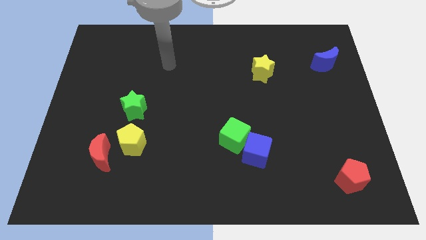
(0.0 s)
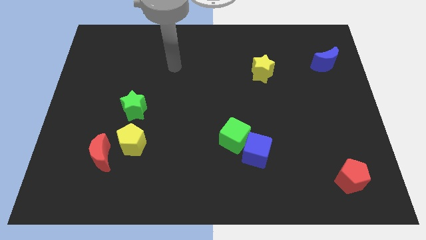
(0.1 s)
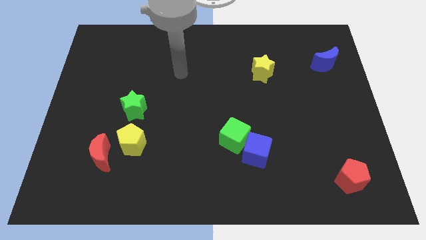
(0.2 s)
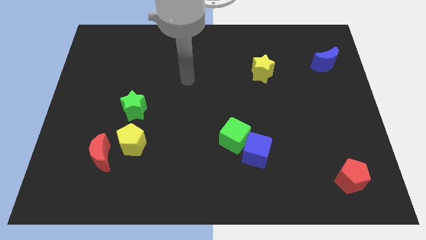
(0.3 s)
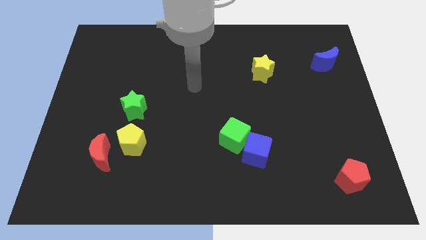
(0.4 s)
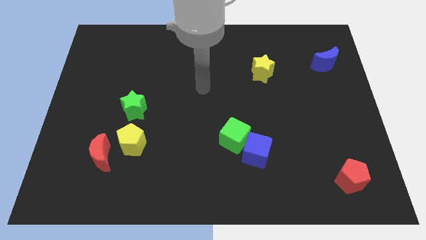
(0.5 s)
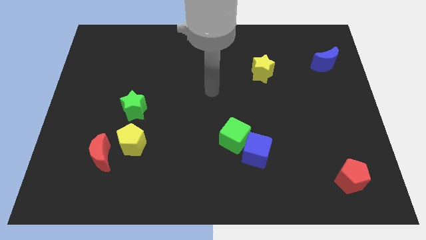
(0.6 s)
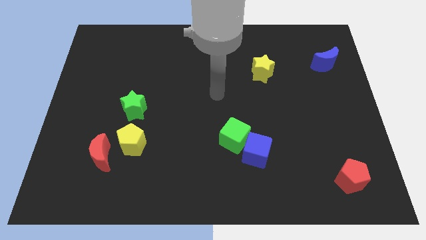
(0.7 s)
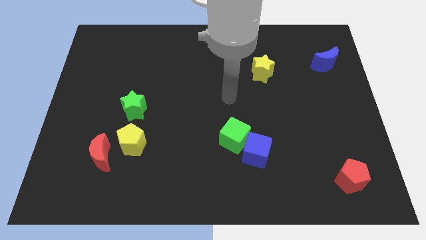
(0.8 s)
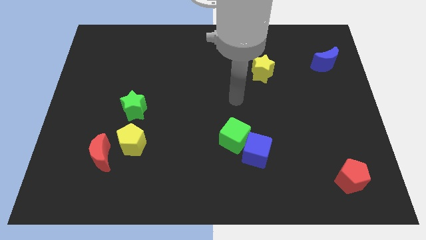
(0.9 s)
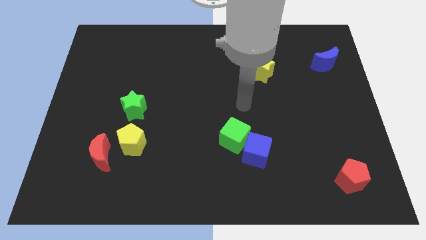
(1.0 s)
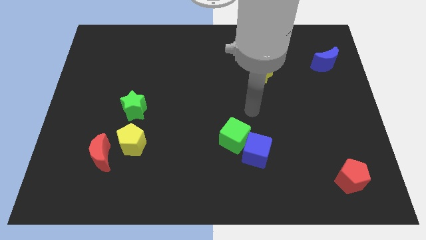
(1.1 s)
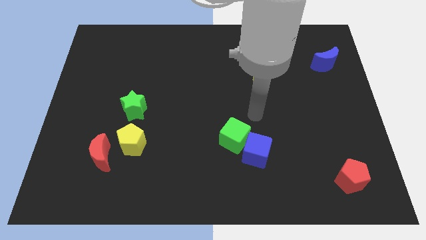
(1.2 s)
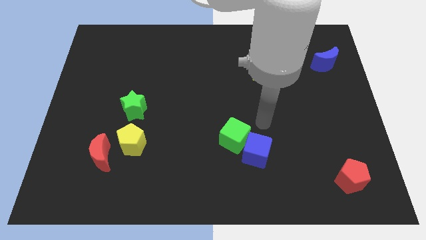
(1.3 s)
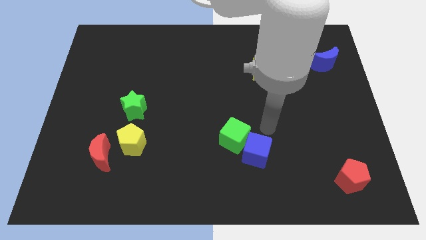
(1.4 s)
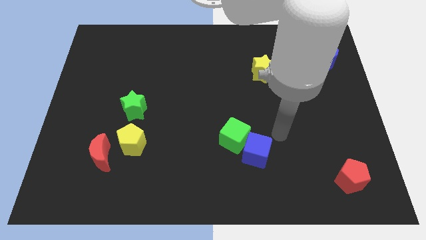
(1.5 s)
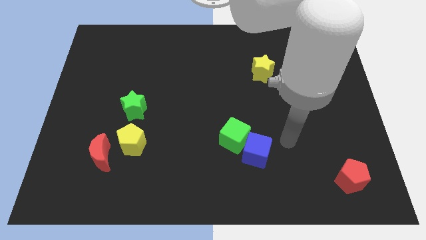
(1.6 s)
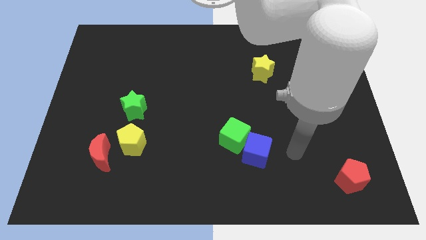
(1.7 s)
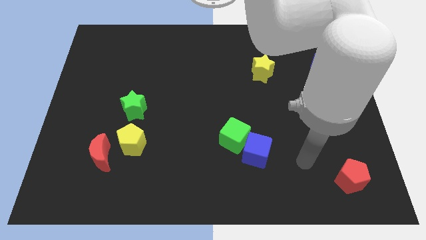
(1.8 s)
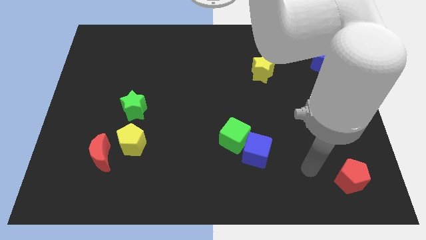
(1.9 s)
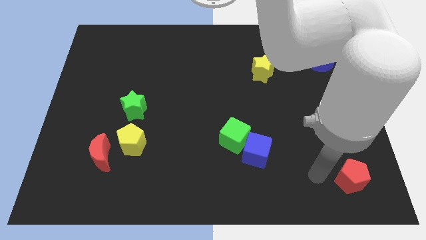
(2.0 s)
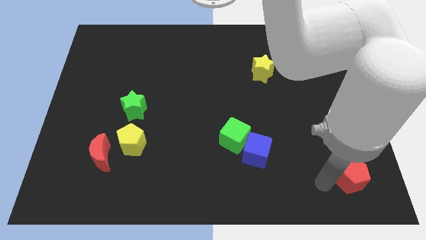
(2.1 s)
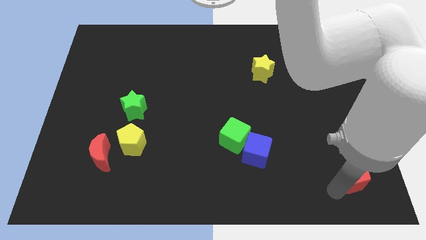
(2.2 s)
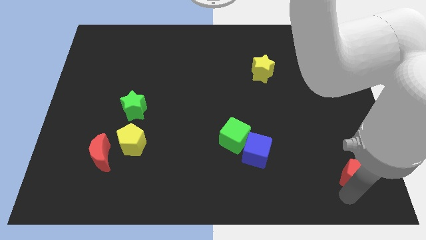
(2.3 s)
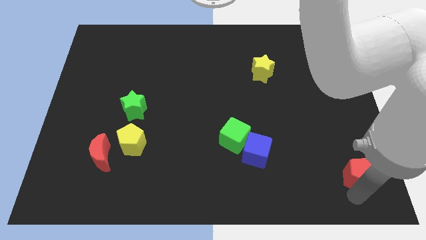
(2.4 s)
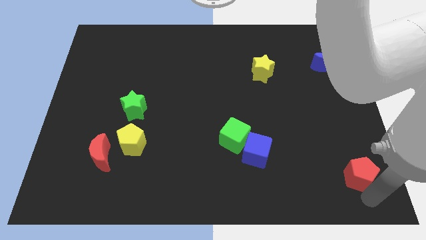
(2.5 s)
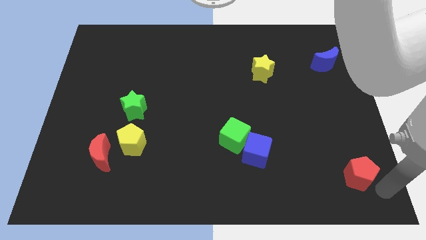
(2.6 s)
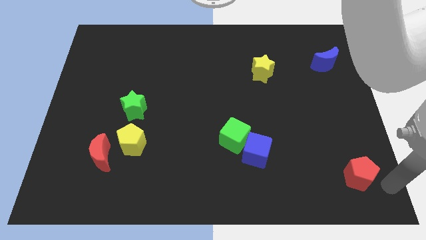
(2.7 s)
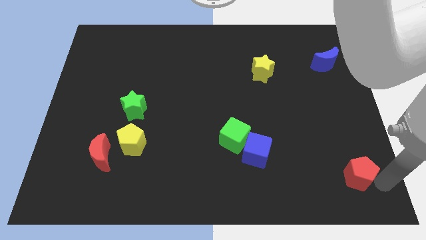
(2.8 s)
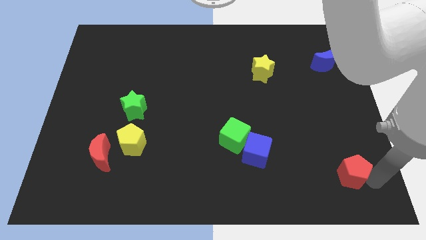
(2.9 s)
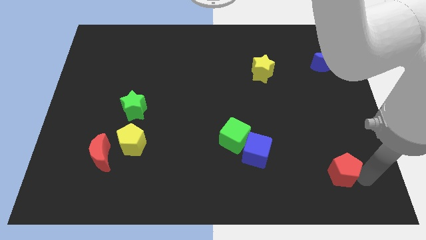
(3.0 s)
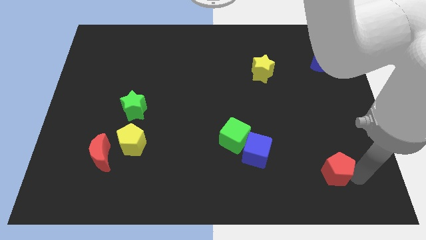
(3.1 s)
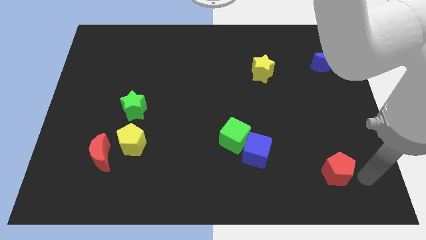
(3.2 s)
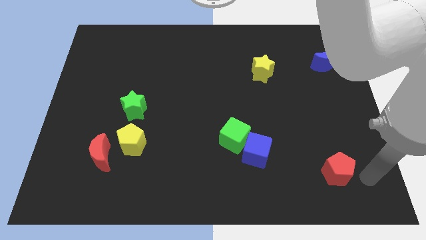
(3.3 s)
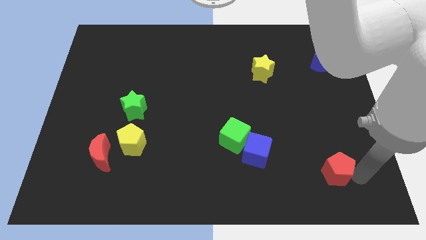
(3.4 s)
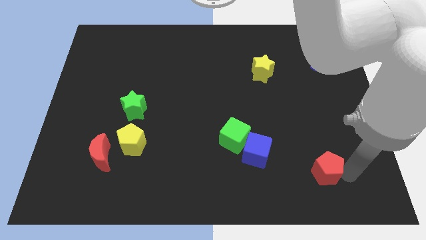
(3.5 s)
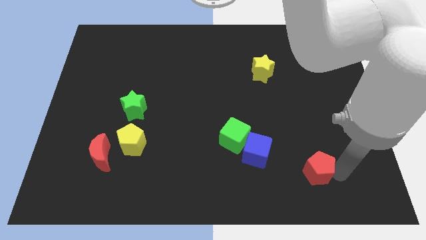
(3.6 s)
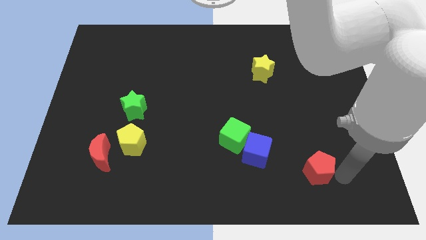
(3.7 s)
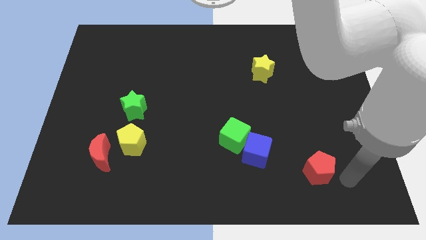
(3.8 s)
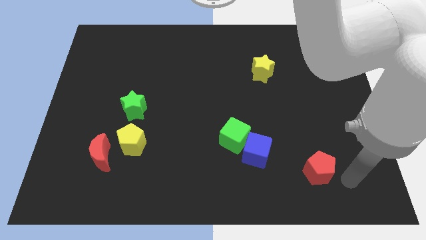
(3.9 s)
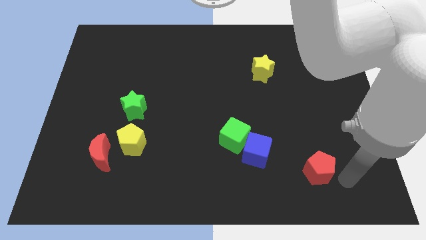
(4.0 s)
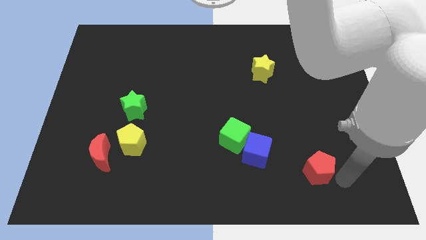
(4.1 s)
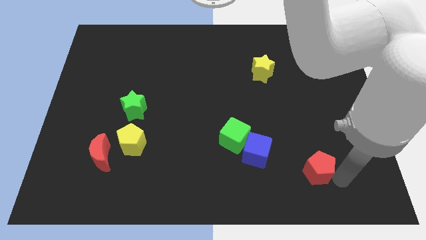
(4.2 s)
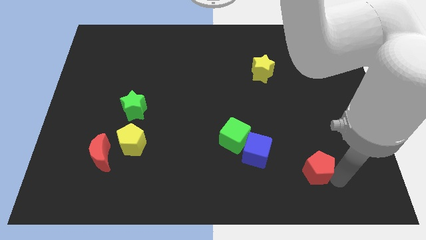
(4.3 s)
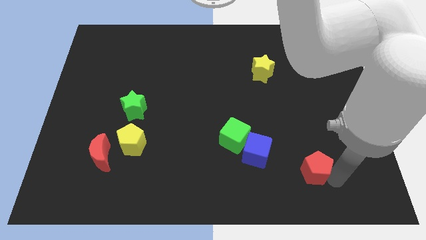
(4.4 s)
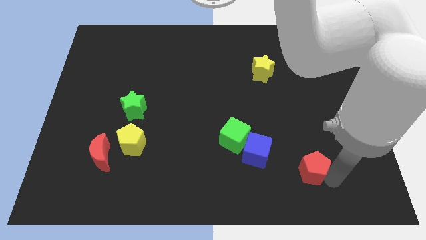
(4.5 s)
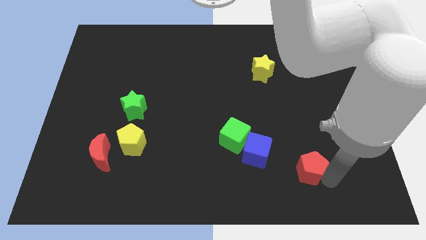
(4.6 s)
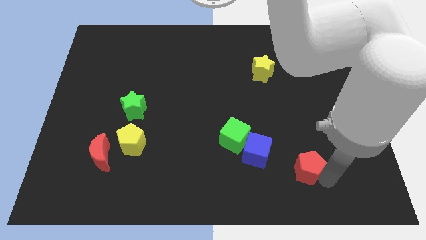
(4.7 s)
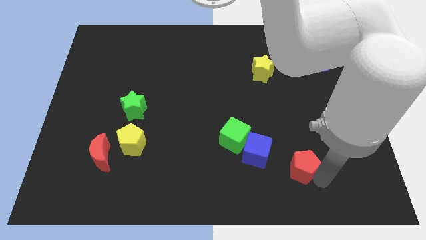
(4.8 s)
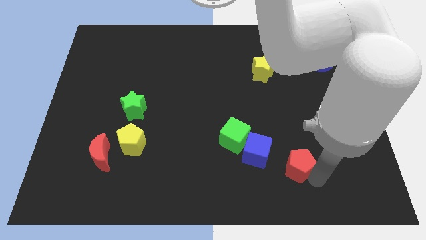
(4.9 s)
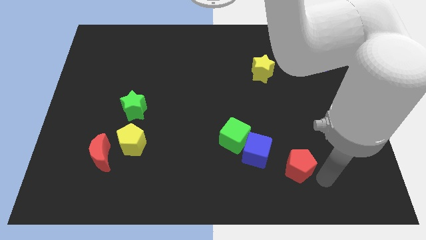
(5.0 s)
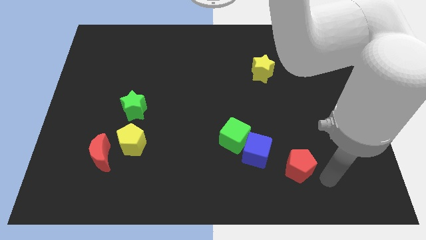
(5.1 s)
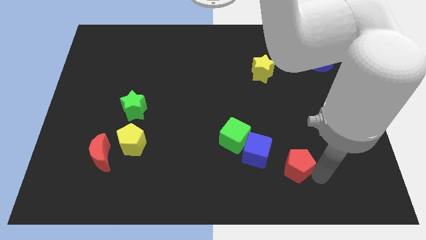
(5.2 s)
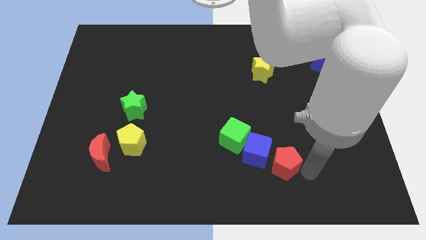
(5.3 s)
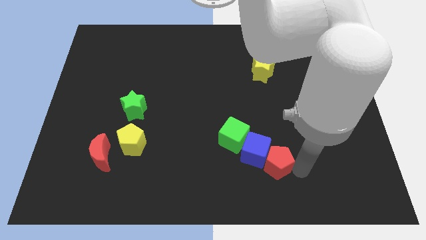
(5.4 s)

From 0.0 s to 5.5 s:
move the red pentagon towards the blue cube

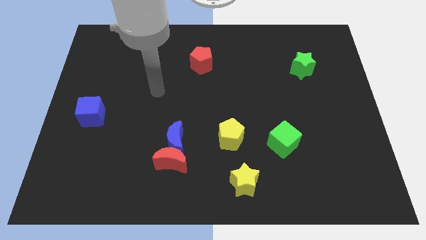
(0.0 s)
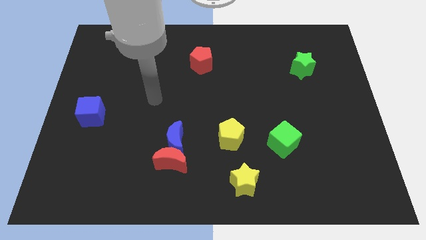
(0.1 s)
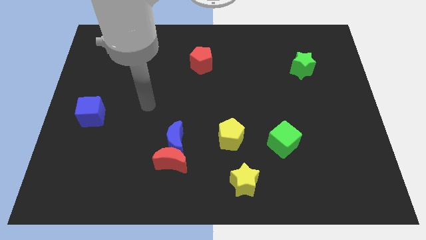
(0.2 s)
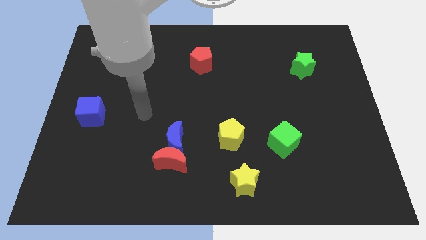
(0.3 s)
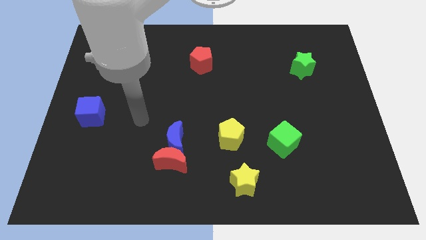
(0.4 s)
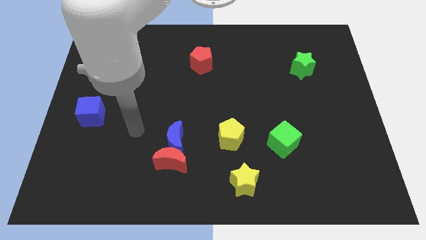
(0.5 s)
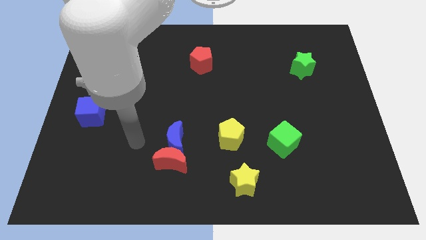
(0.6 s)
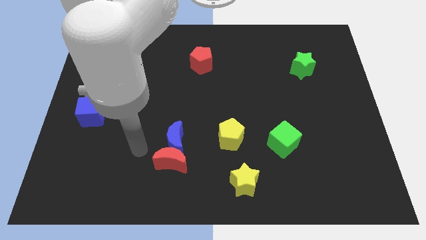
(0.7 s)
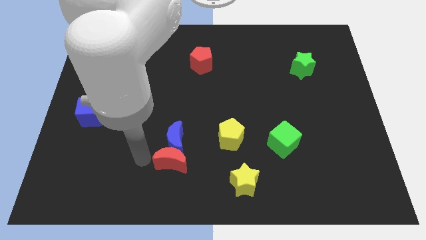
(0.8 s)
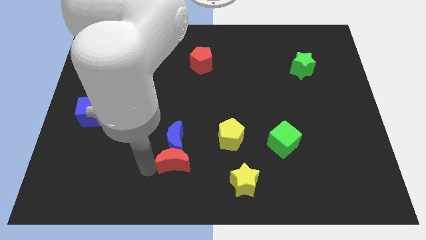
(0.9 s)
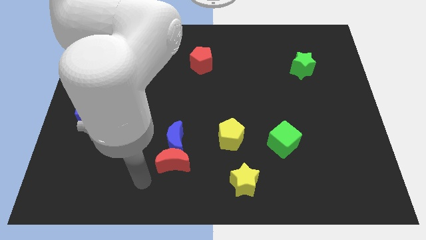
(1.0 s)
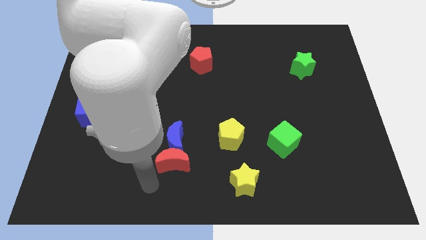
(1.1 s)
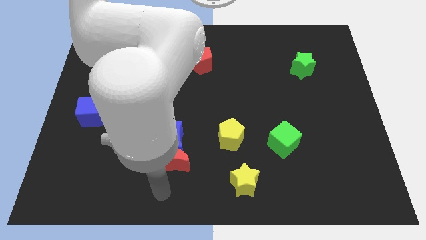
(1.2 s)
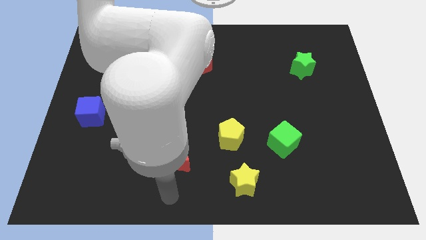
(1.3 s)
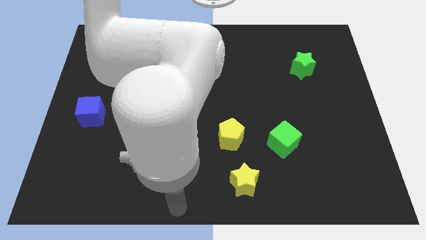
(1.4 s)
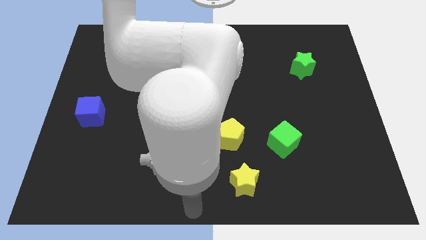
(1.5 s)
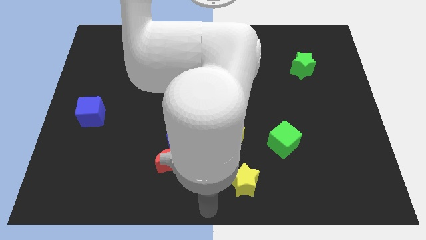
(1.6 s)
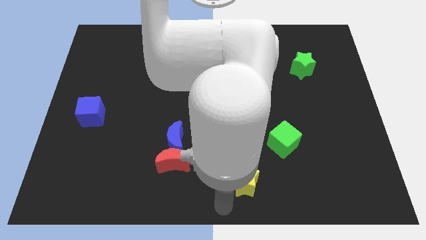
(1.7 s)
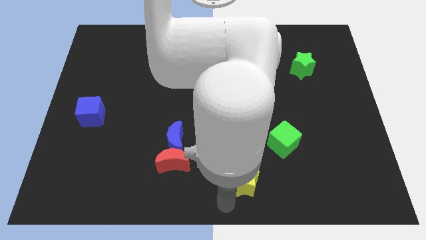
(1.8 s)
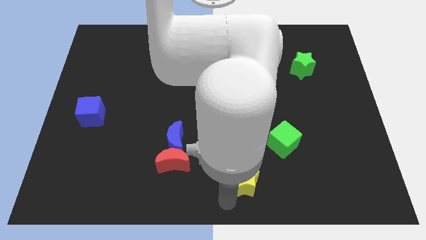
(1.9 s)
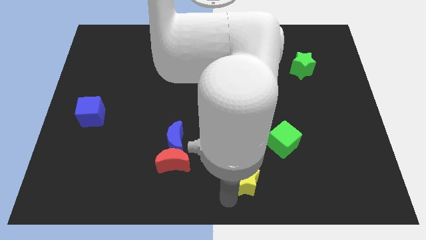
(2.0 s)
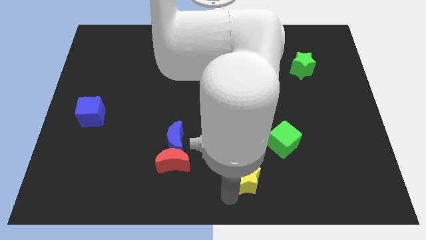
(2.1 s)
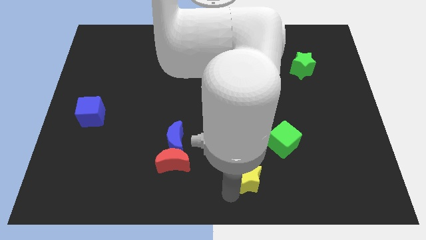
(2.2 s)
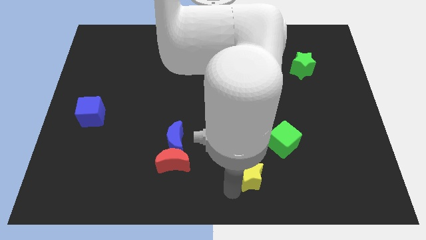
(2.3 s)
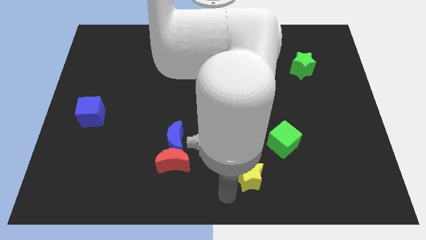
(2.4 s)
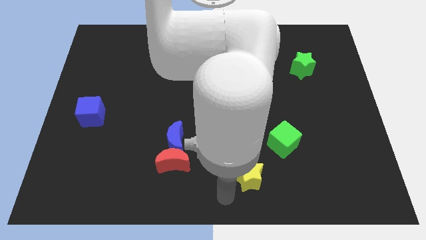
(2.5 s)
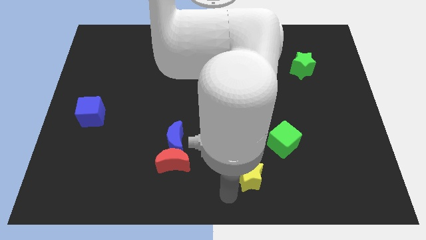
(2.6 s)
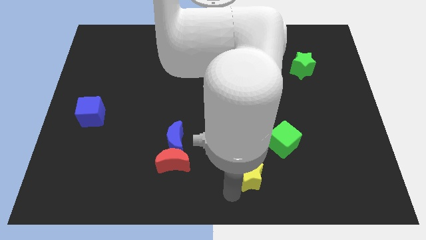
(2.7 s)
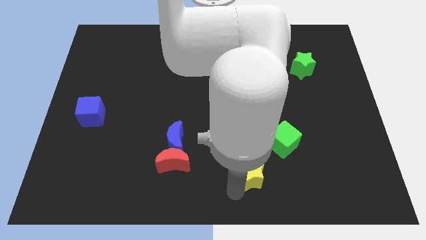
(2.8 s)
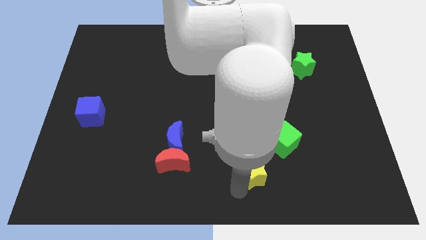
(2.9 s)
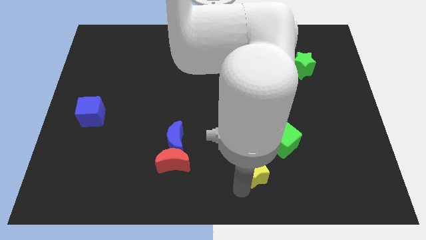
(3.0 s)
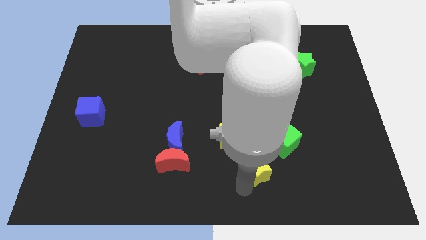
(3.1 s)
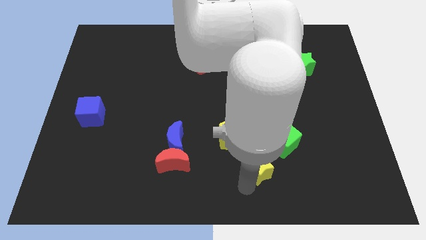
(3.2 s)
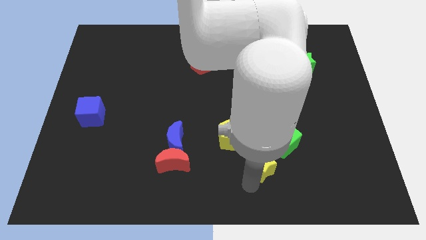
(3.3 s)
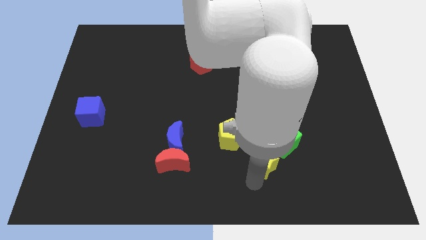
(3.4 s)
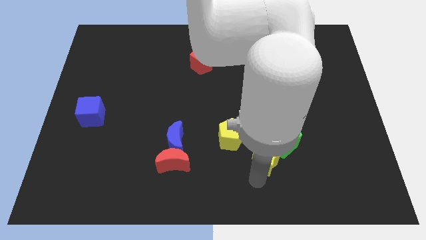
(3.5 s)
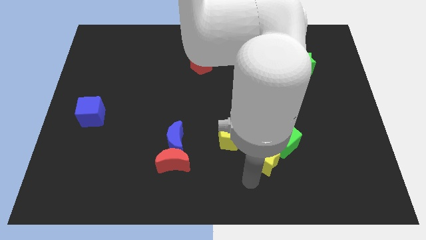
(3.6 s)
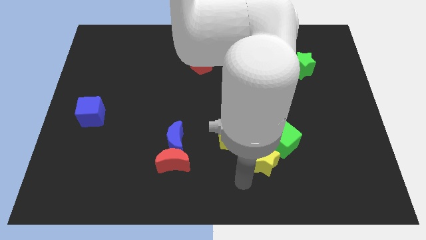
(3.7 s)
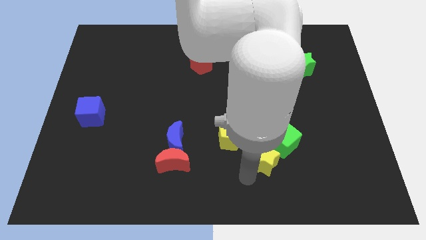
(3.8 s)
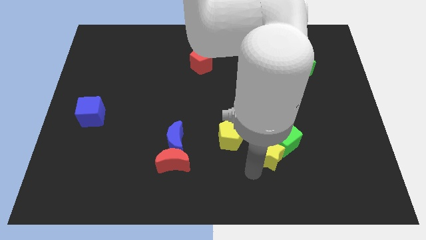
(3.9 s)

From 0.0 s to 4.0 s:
push the yellow star next to the green cube
